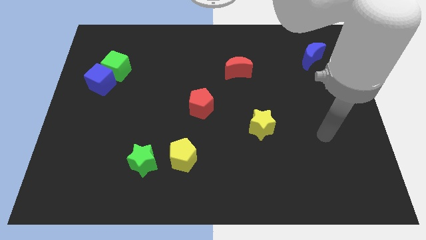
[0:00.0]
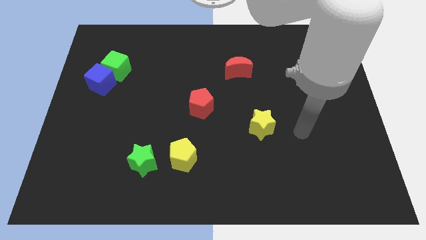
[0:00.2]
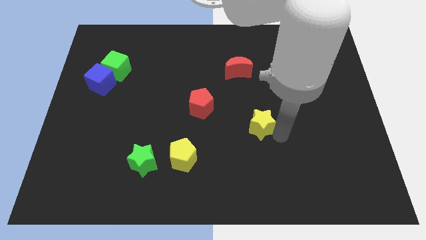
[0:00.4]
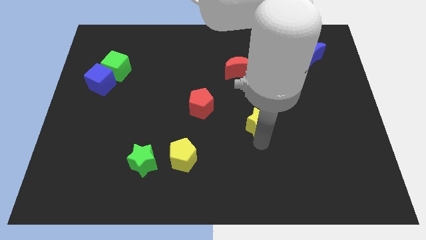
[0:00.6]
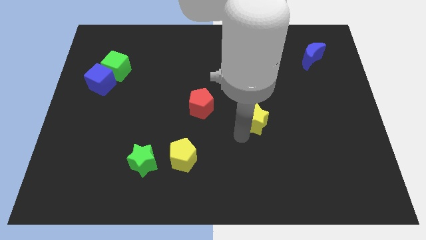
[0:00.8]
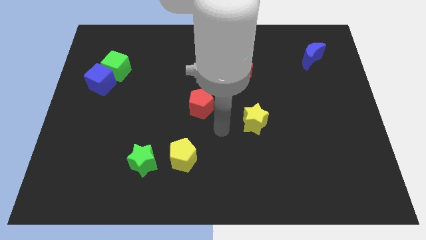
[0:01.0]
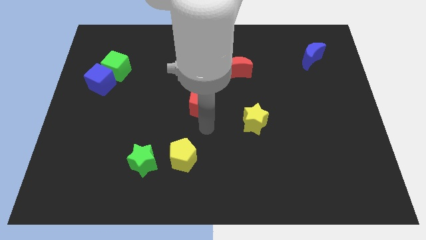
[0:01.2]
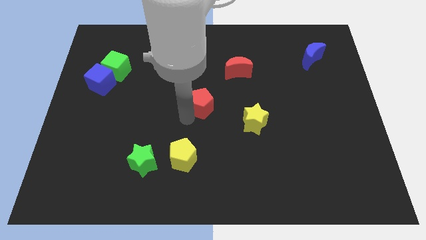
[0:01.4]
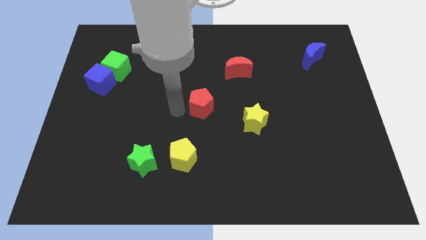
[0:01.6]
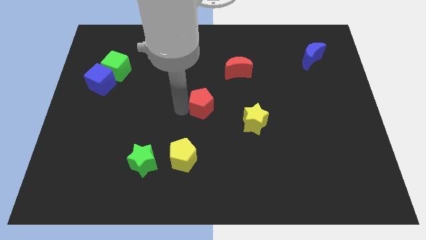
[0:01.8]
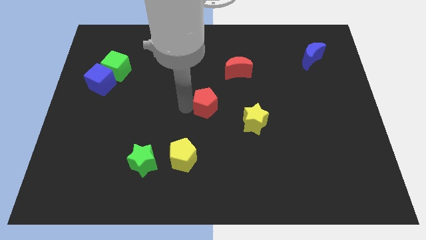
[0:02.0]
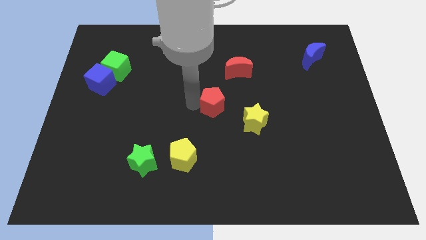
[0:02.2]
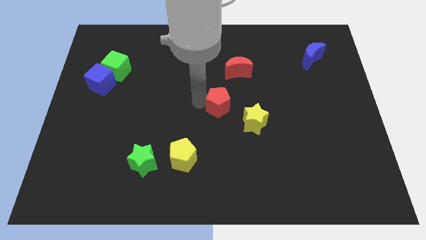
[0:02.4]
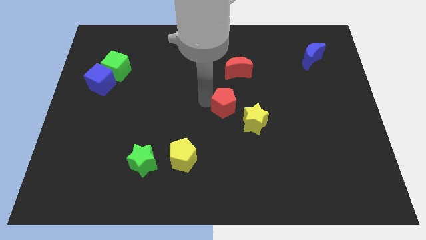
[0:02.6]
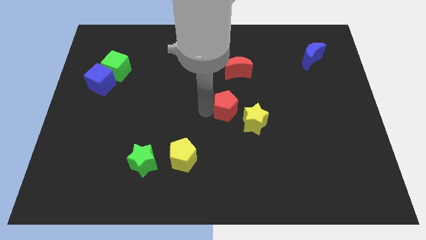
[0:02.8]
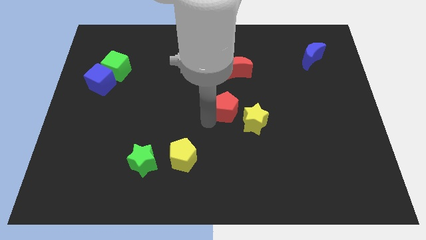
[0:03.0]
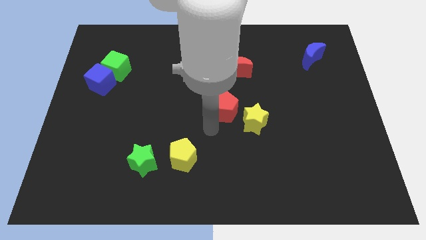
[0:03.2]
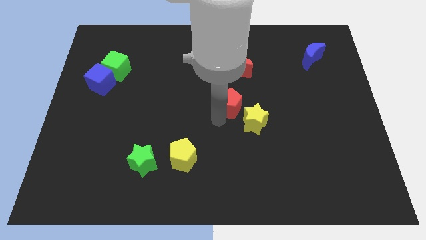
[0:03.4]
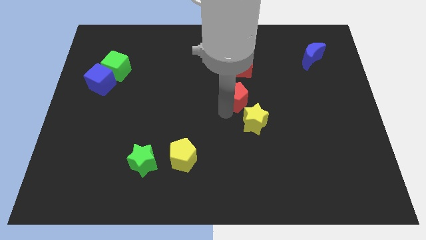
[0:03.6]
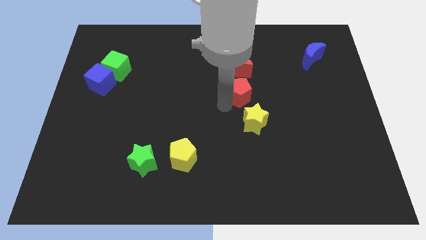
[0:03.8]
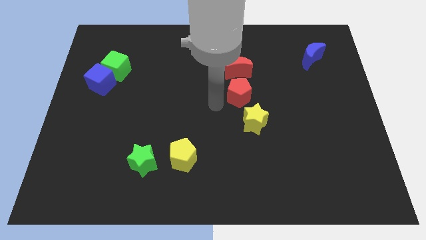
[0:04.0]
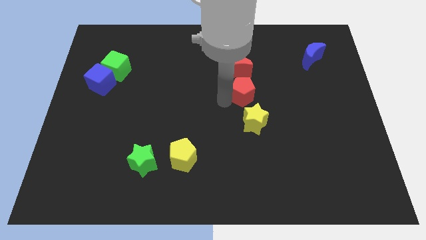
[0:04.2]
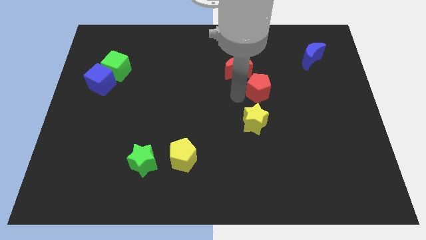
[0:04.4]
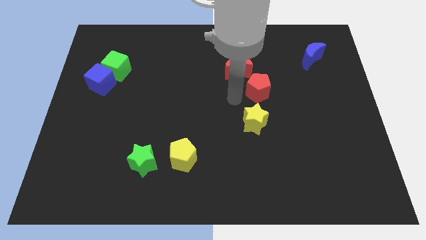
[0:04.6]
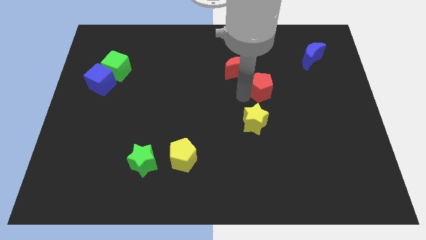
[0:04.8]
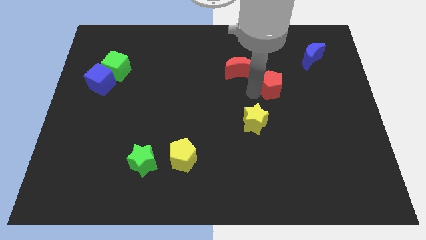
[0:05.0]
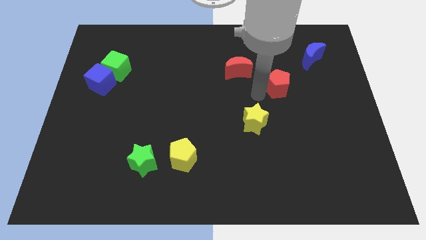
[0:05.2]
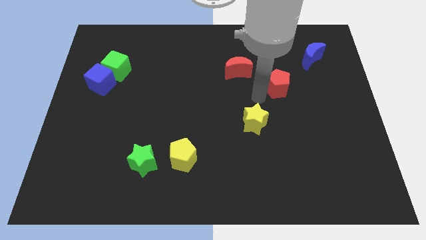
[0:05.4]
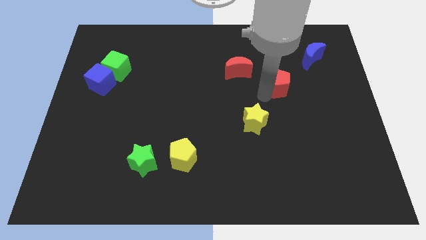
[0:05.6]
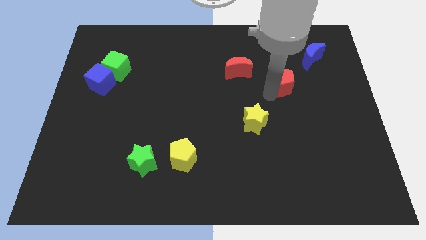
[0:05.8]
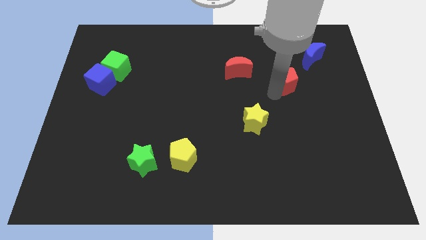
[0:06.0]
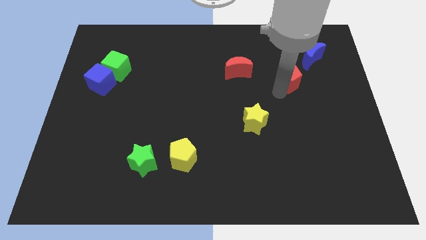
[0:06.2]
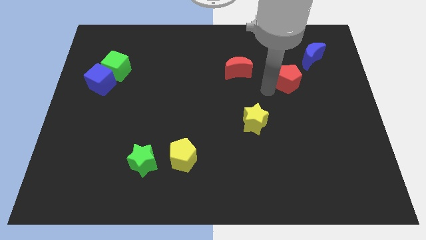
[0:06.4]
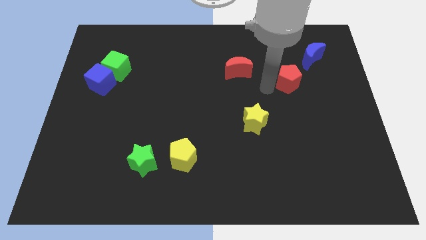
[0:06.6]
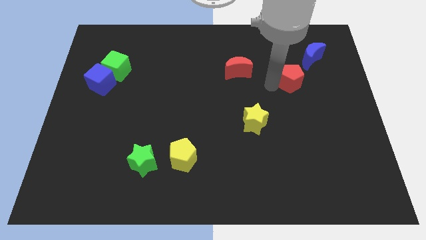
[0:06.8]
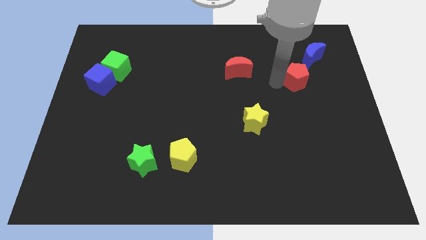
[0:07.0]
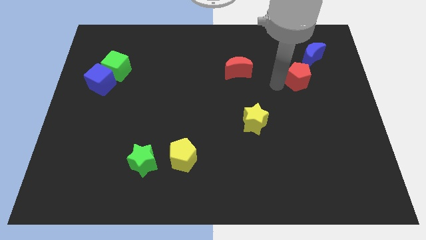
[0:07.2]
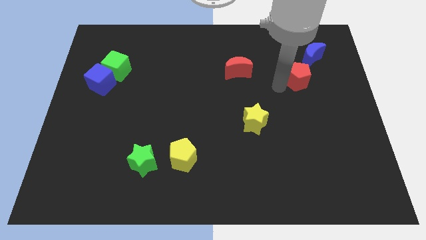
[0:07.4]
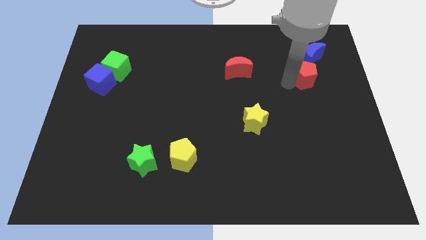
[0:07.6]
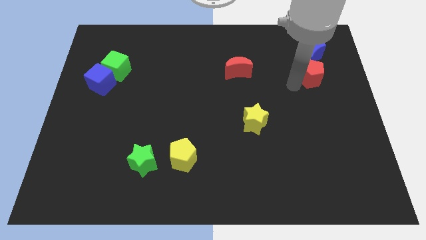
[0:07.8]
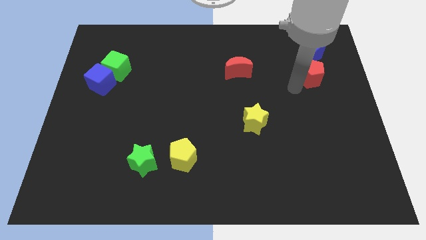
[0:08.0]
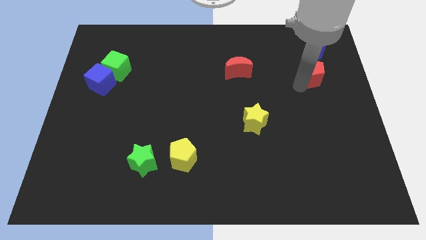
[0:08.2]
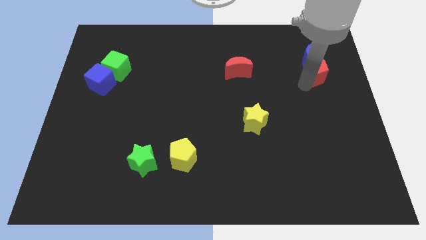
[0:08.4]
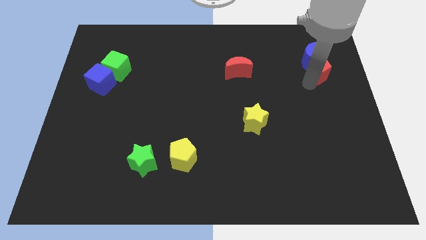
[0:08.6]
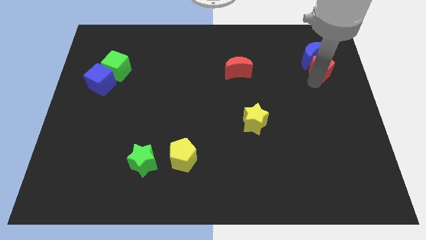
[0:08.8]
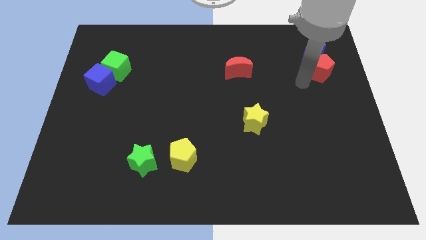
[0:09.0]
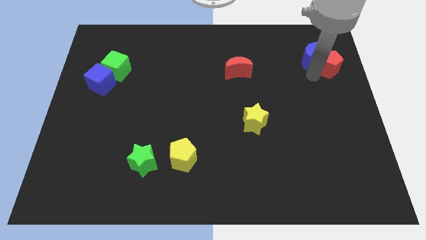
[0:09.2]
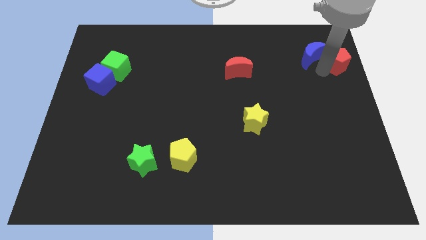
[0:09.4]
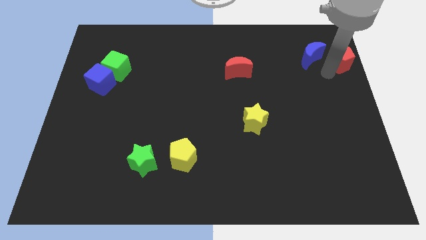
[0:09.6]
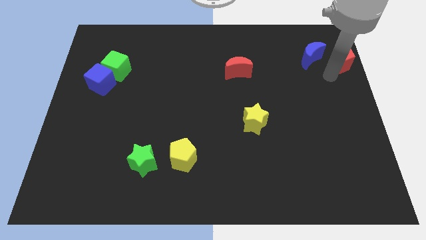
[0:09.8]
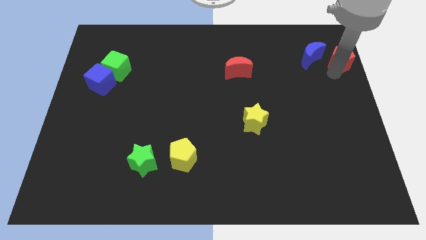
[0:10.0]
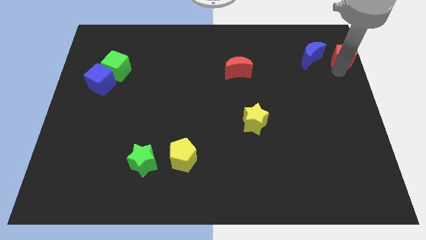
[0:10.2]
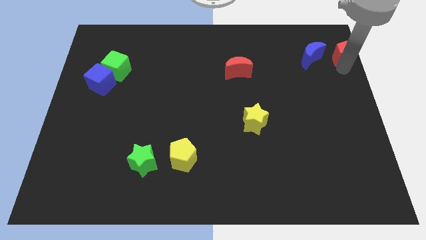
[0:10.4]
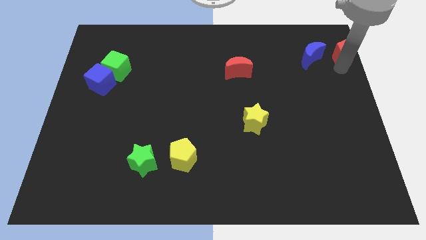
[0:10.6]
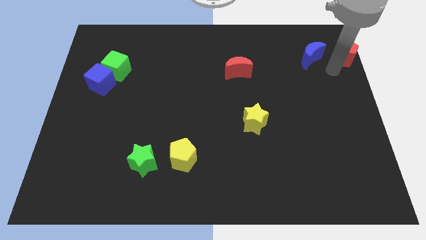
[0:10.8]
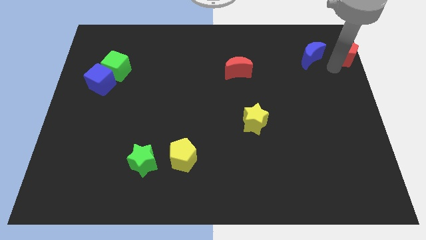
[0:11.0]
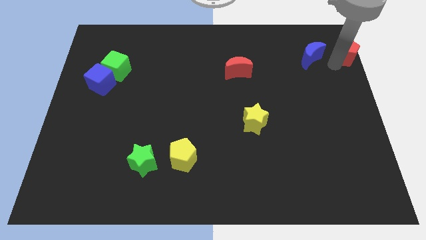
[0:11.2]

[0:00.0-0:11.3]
move the red pentagon to the top right of the board

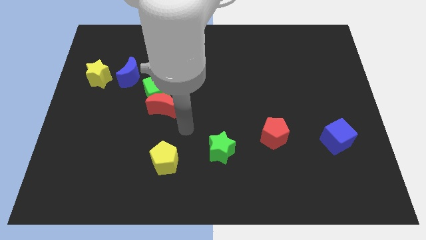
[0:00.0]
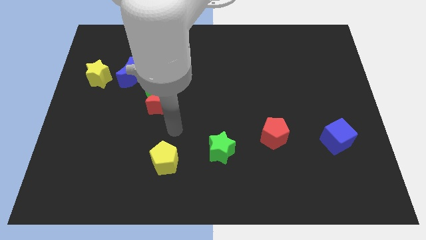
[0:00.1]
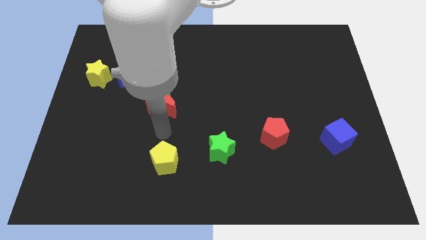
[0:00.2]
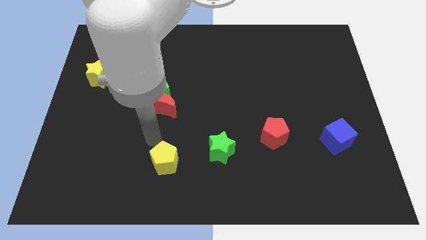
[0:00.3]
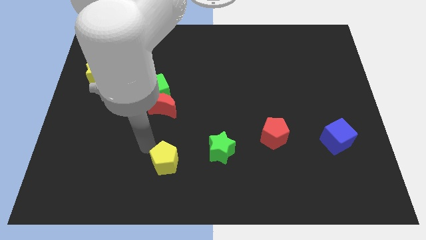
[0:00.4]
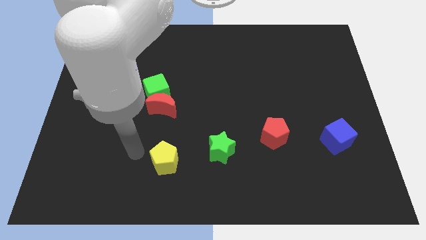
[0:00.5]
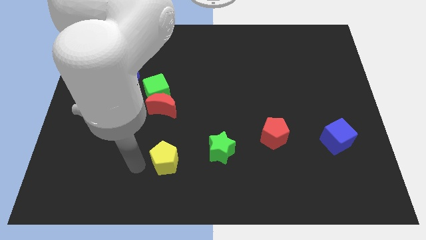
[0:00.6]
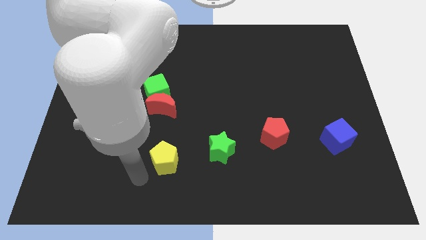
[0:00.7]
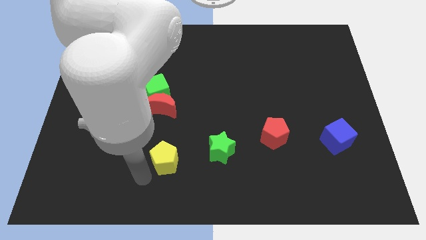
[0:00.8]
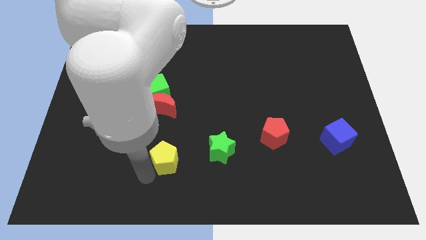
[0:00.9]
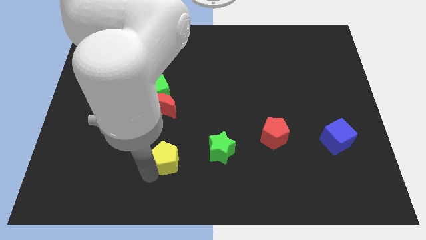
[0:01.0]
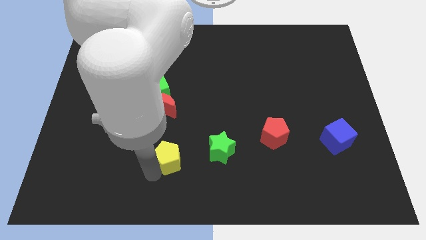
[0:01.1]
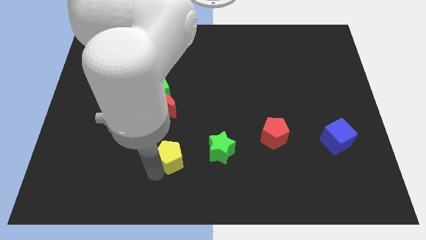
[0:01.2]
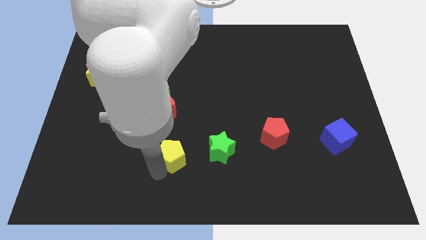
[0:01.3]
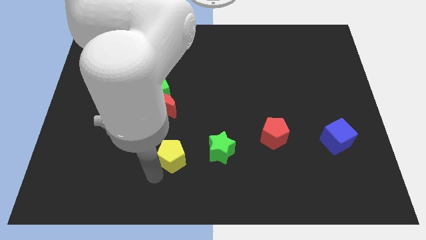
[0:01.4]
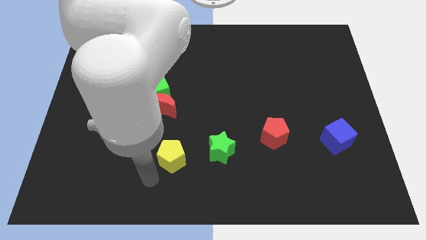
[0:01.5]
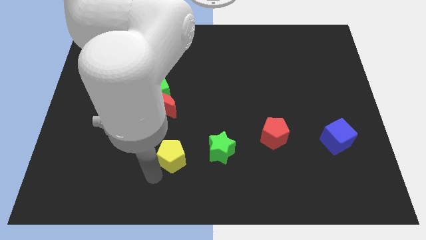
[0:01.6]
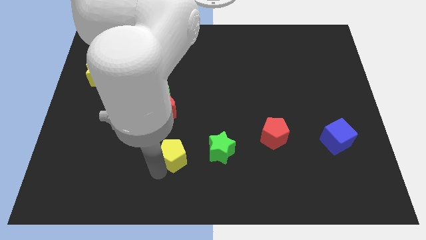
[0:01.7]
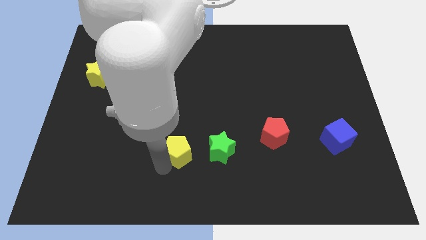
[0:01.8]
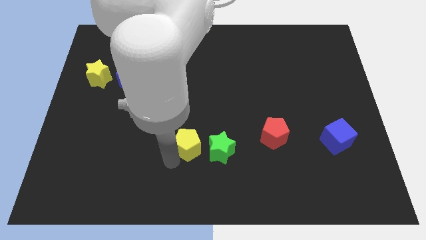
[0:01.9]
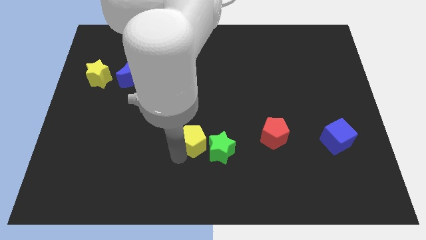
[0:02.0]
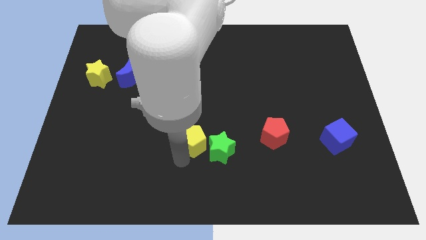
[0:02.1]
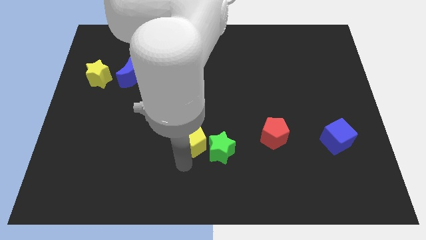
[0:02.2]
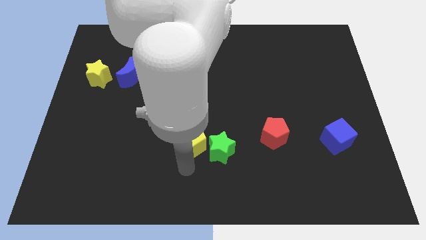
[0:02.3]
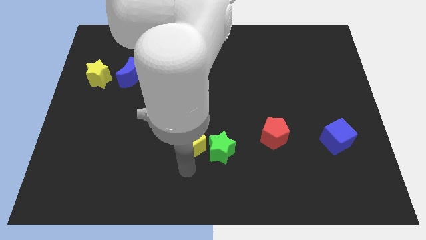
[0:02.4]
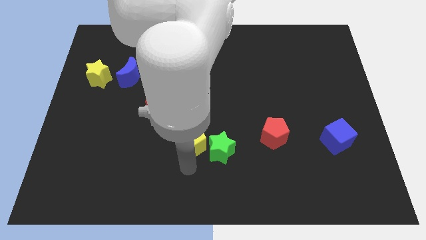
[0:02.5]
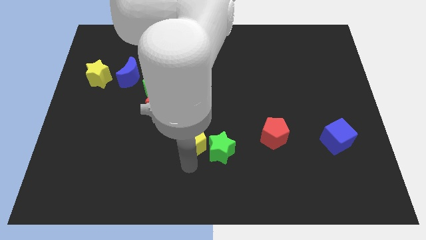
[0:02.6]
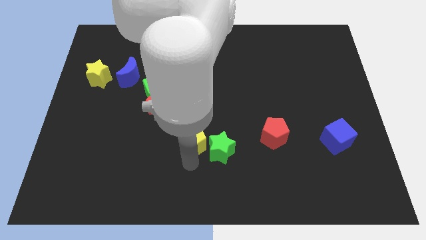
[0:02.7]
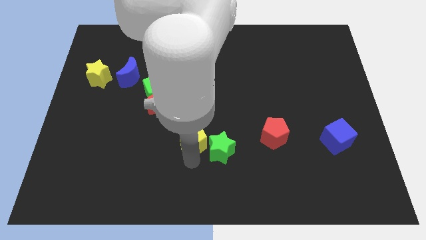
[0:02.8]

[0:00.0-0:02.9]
slide the yellow pentagon to the middle
